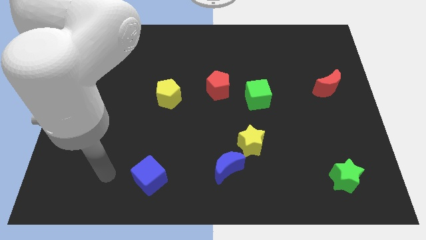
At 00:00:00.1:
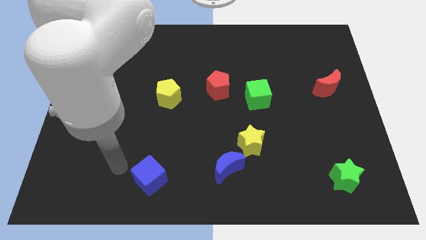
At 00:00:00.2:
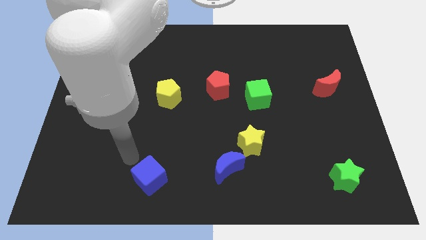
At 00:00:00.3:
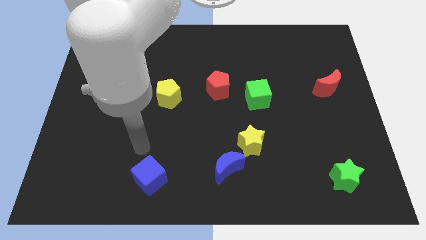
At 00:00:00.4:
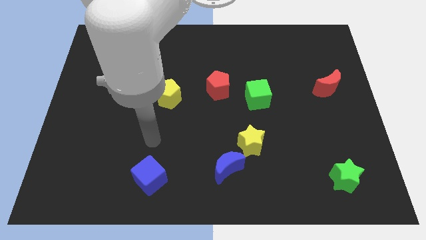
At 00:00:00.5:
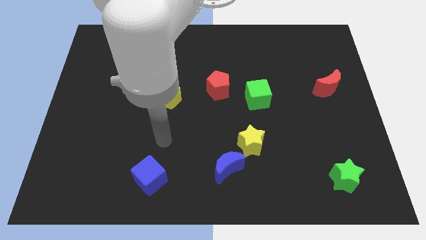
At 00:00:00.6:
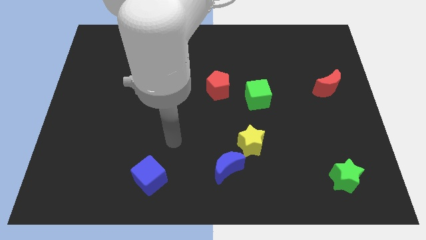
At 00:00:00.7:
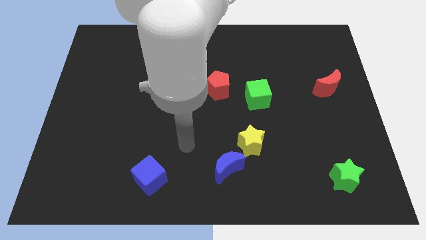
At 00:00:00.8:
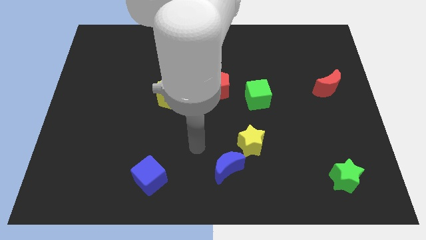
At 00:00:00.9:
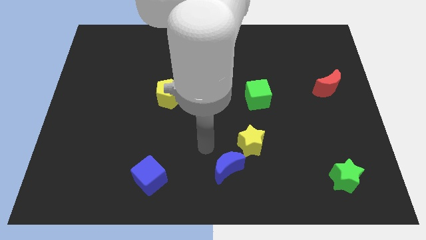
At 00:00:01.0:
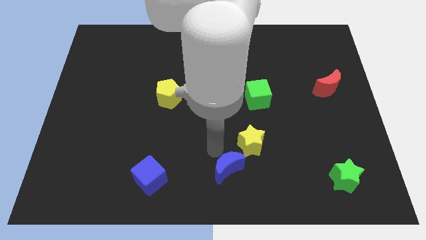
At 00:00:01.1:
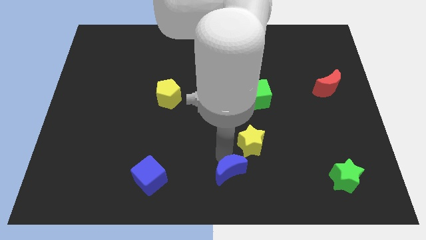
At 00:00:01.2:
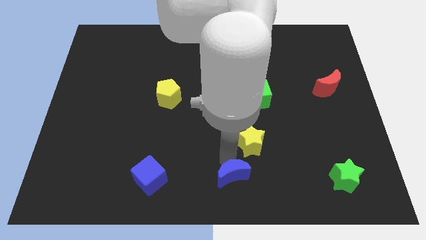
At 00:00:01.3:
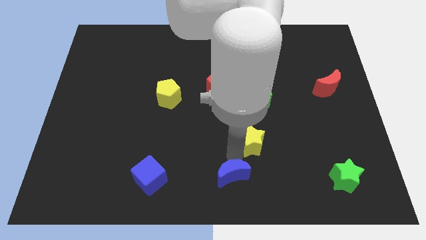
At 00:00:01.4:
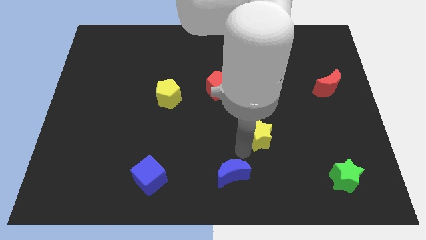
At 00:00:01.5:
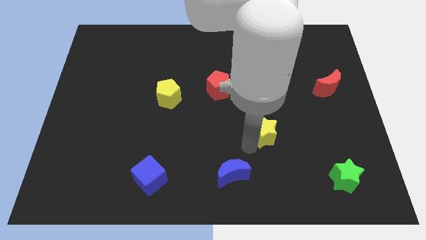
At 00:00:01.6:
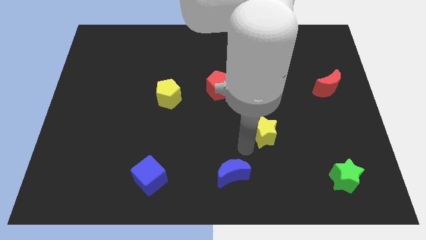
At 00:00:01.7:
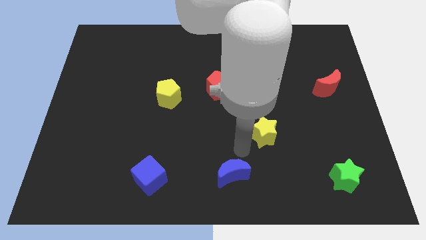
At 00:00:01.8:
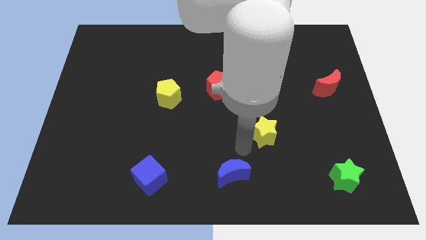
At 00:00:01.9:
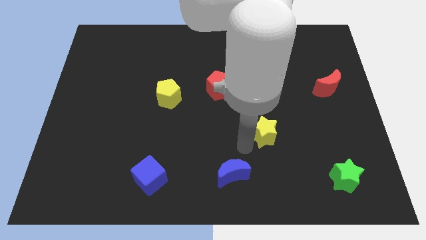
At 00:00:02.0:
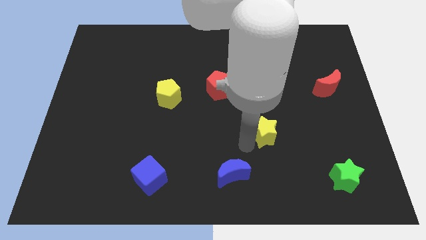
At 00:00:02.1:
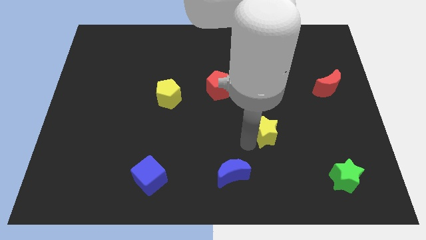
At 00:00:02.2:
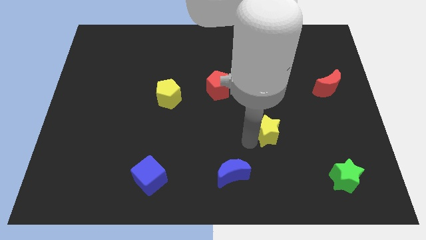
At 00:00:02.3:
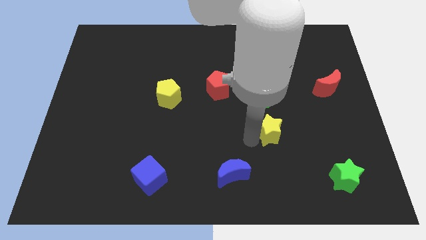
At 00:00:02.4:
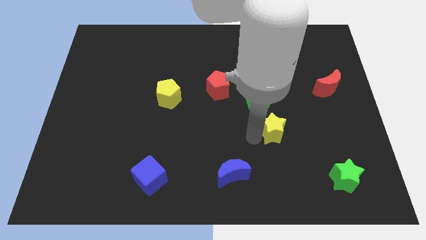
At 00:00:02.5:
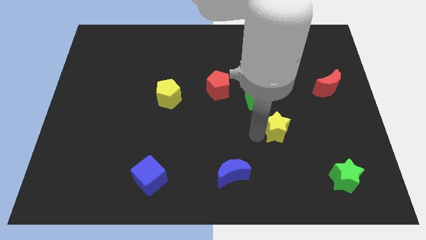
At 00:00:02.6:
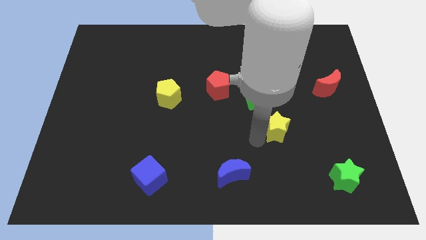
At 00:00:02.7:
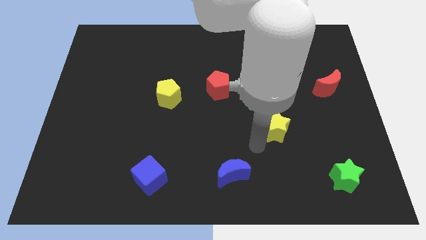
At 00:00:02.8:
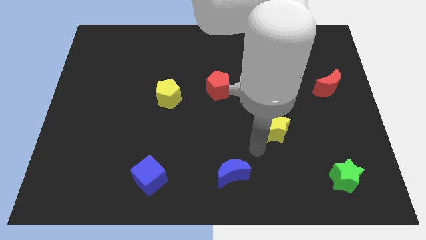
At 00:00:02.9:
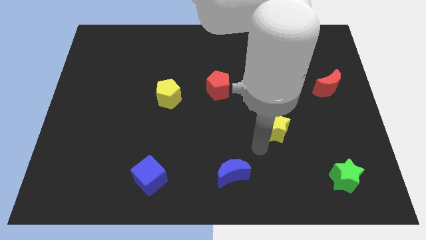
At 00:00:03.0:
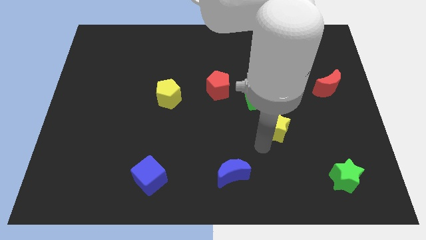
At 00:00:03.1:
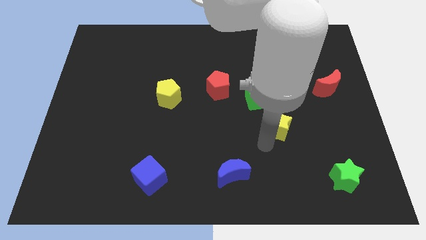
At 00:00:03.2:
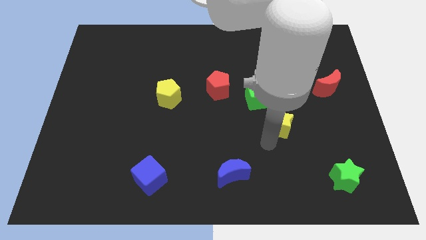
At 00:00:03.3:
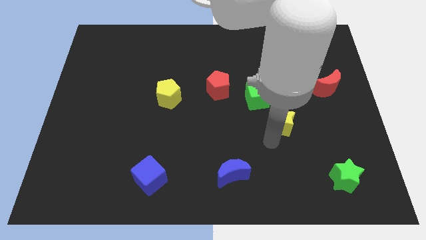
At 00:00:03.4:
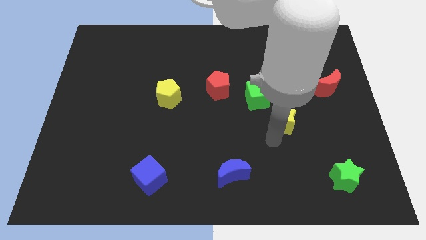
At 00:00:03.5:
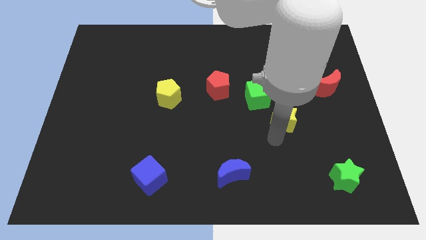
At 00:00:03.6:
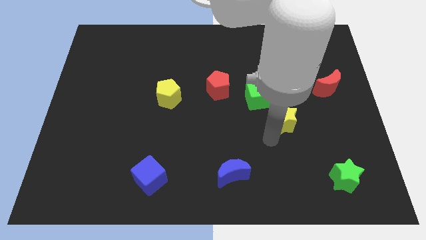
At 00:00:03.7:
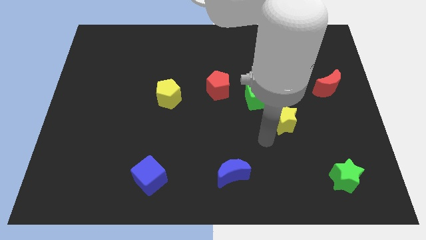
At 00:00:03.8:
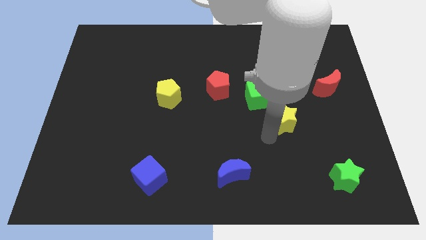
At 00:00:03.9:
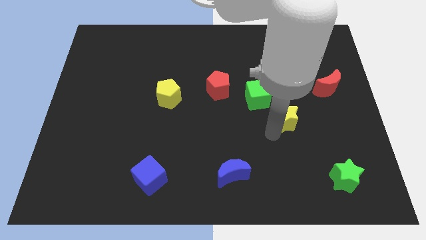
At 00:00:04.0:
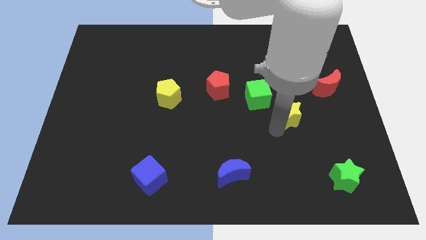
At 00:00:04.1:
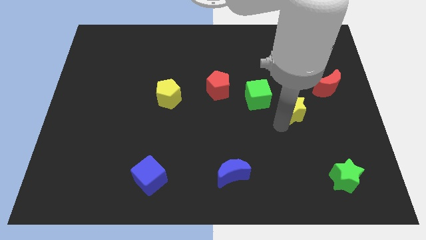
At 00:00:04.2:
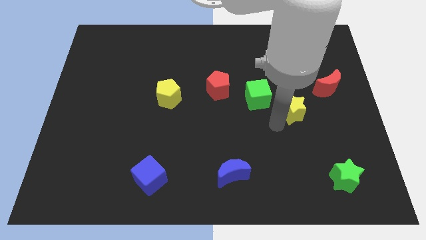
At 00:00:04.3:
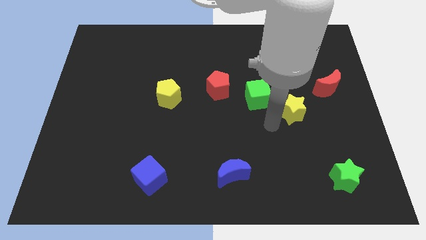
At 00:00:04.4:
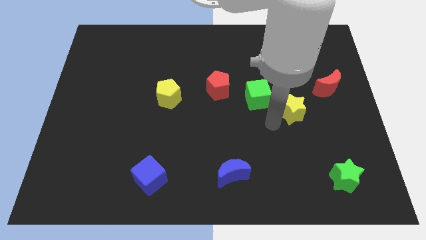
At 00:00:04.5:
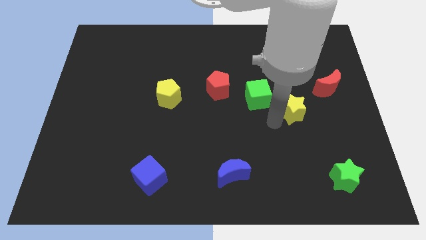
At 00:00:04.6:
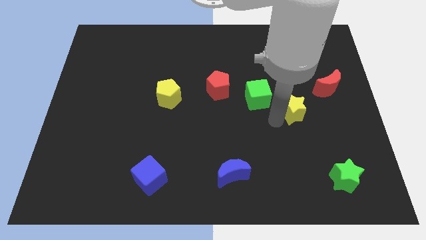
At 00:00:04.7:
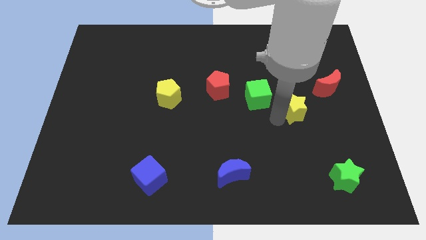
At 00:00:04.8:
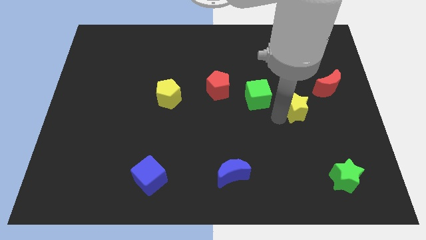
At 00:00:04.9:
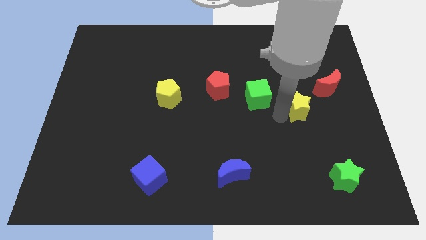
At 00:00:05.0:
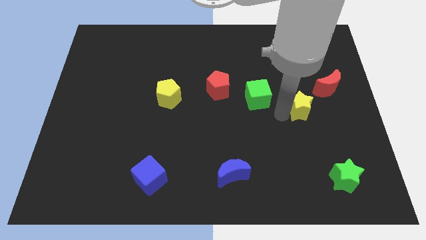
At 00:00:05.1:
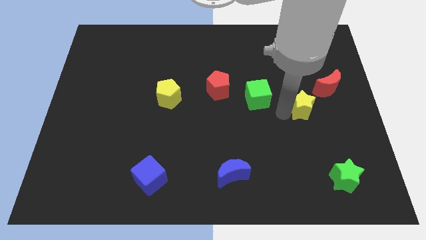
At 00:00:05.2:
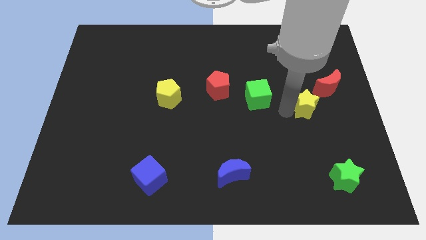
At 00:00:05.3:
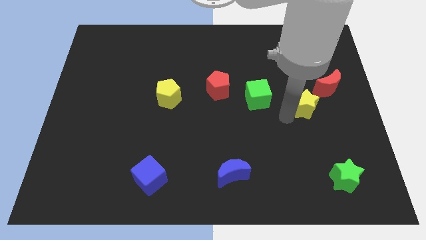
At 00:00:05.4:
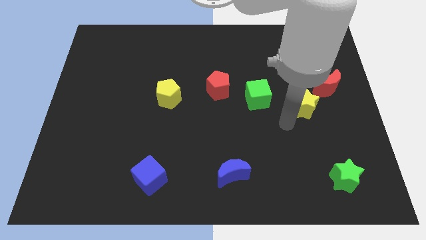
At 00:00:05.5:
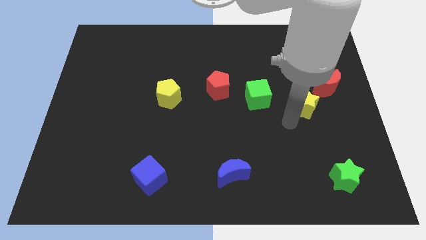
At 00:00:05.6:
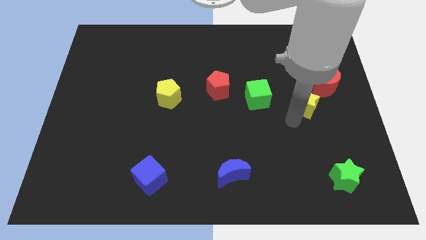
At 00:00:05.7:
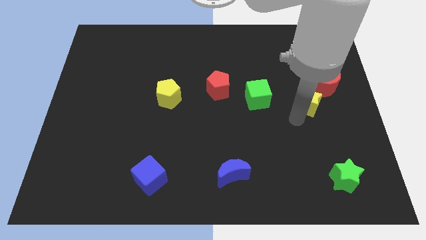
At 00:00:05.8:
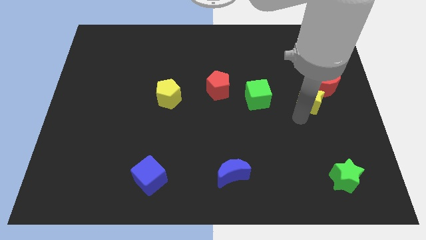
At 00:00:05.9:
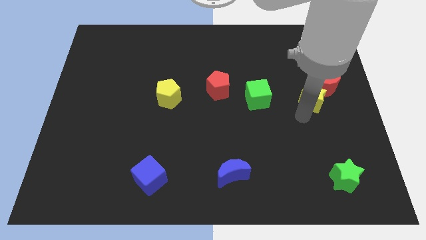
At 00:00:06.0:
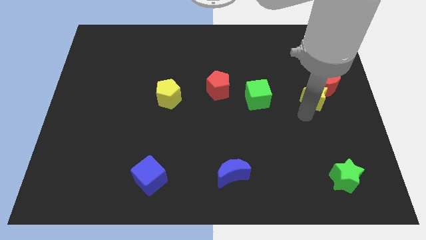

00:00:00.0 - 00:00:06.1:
slide the yellow star close to the red moon

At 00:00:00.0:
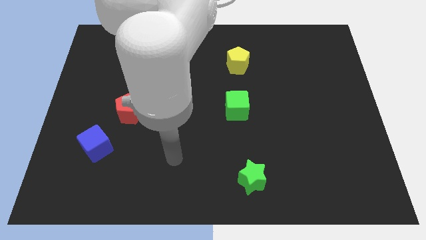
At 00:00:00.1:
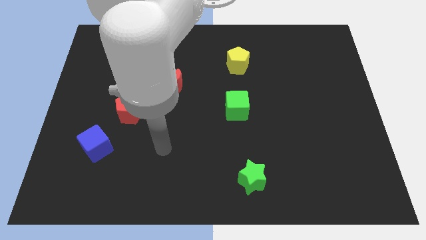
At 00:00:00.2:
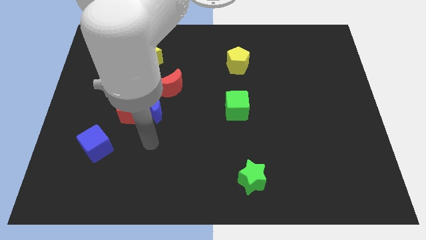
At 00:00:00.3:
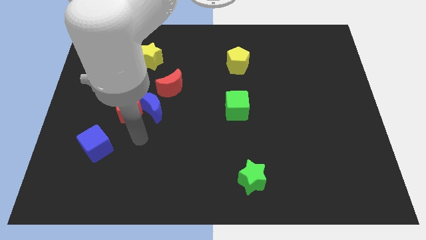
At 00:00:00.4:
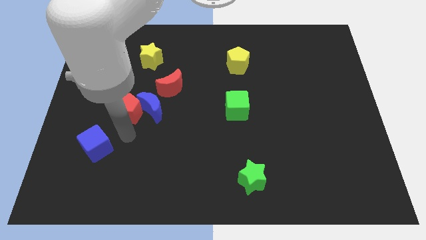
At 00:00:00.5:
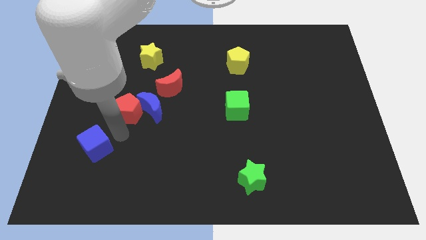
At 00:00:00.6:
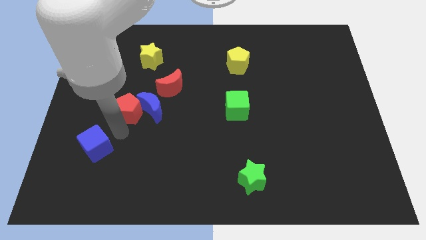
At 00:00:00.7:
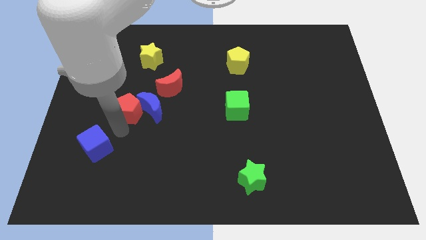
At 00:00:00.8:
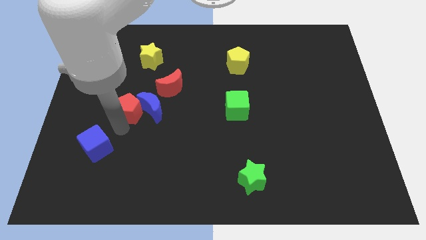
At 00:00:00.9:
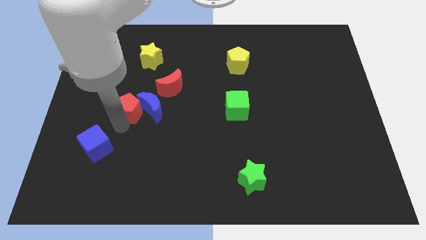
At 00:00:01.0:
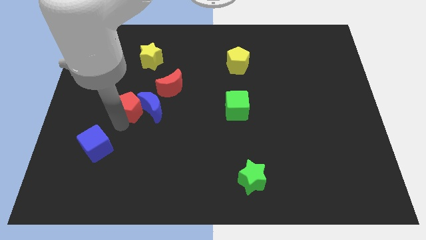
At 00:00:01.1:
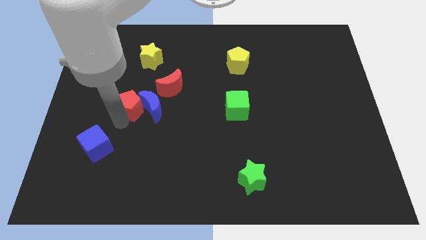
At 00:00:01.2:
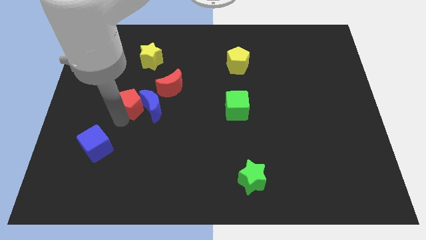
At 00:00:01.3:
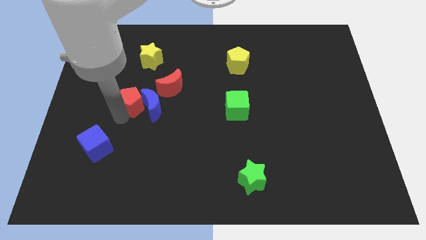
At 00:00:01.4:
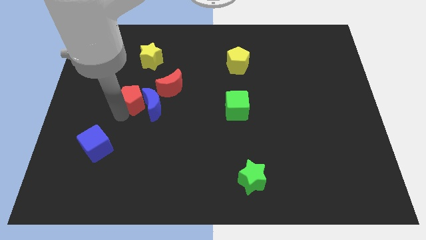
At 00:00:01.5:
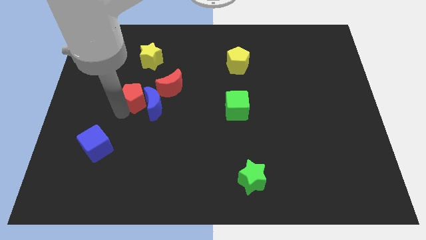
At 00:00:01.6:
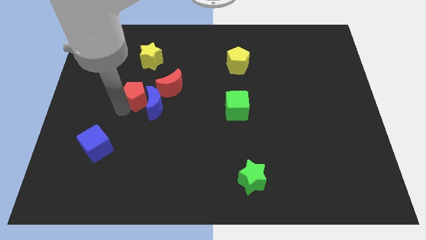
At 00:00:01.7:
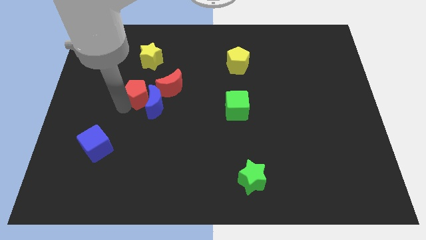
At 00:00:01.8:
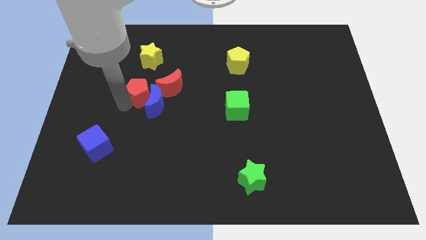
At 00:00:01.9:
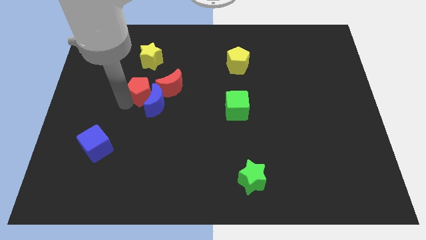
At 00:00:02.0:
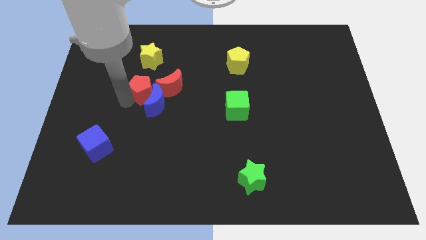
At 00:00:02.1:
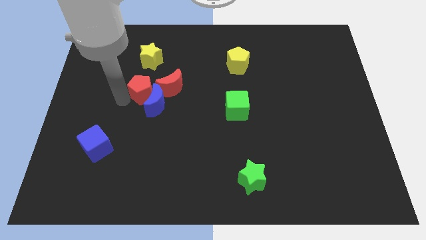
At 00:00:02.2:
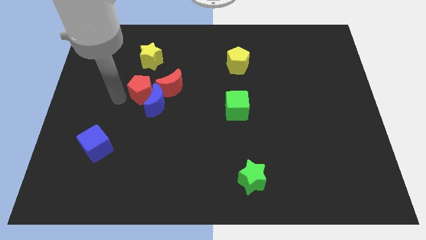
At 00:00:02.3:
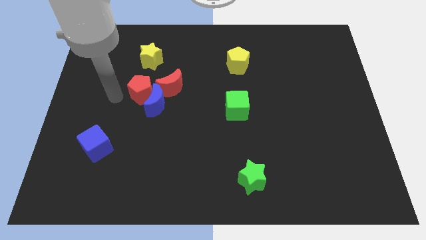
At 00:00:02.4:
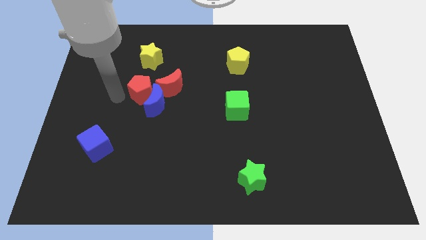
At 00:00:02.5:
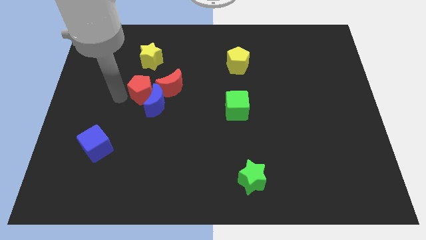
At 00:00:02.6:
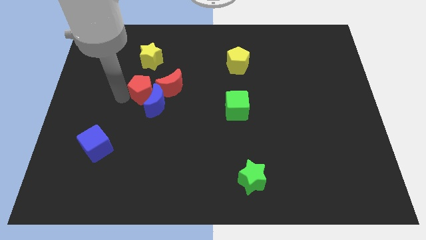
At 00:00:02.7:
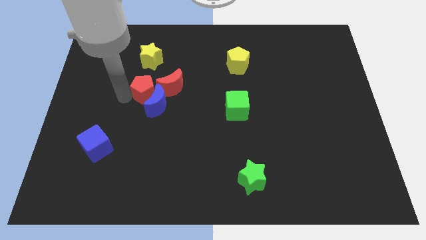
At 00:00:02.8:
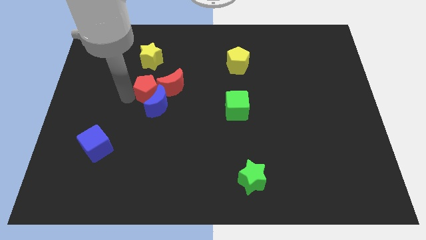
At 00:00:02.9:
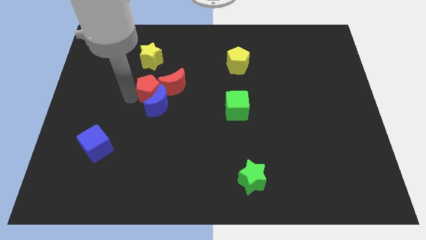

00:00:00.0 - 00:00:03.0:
move the red pentagon next to the red moon
